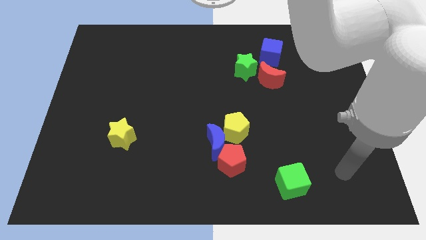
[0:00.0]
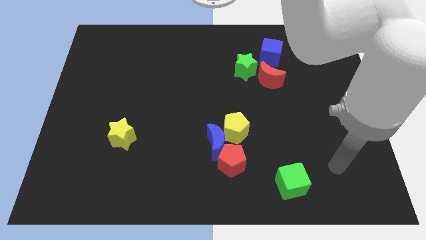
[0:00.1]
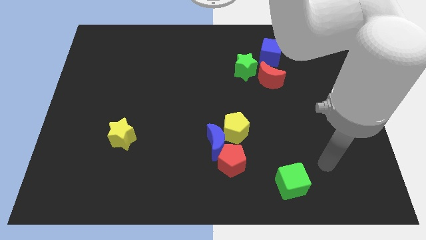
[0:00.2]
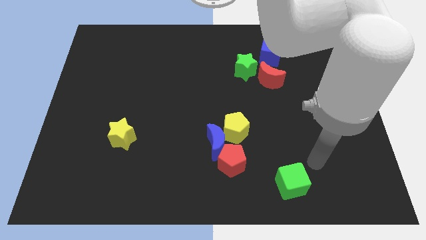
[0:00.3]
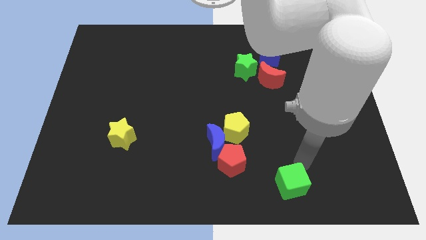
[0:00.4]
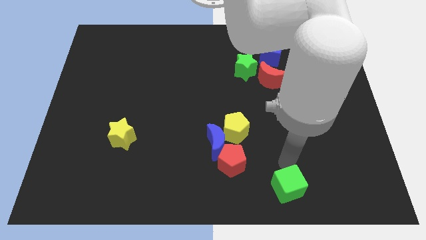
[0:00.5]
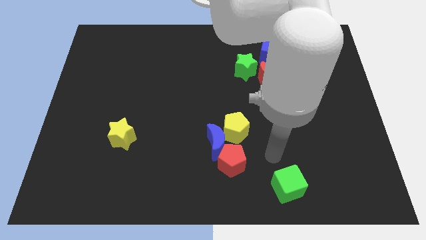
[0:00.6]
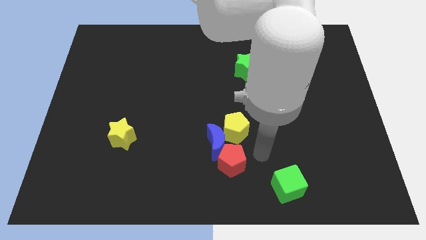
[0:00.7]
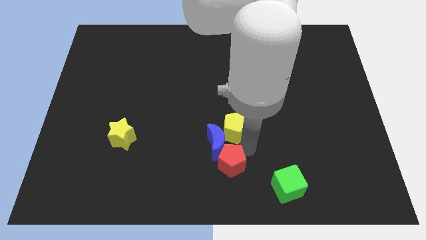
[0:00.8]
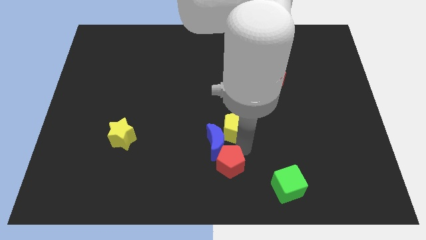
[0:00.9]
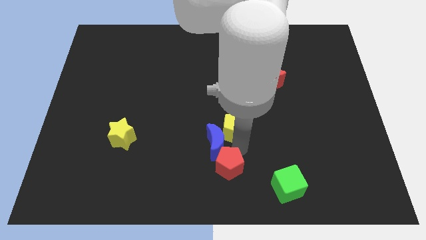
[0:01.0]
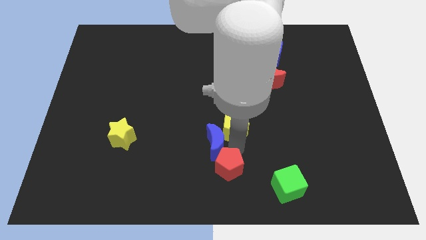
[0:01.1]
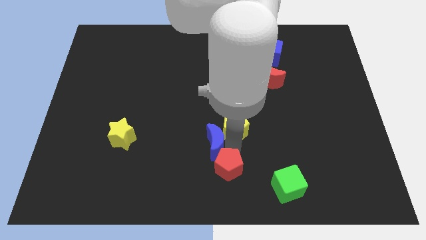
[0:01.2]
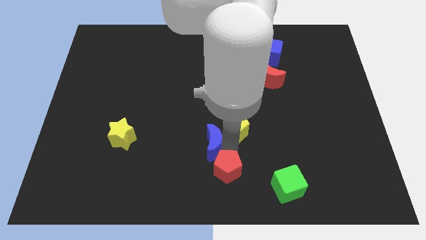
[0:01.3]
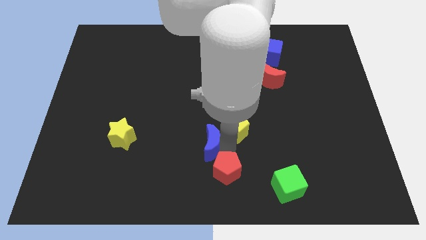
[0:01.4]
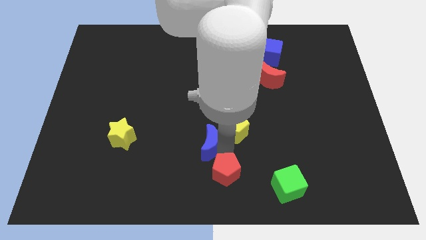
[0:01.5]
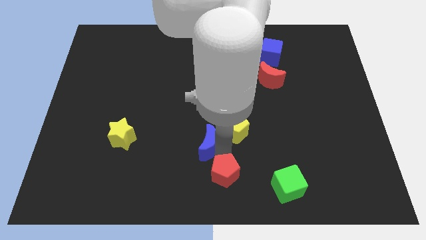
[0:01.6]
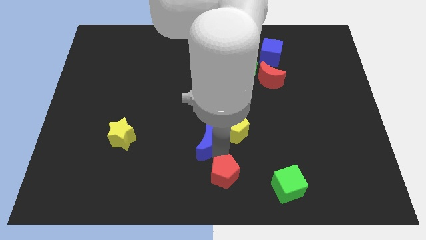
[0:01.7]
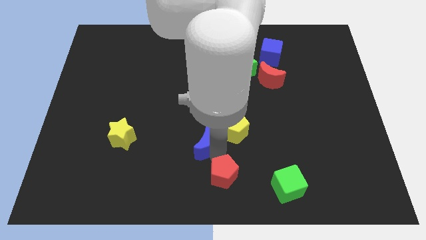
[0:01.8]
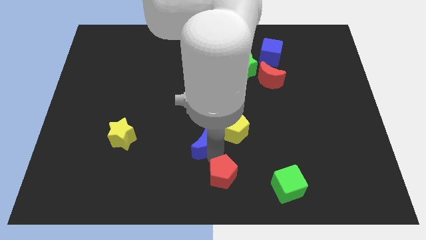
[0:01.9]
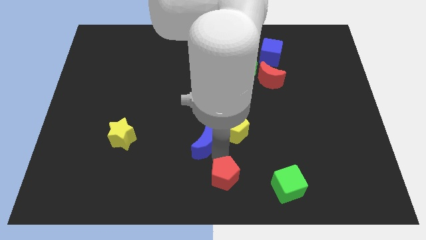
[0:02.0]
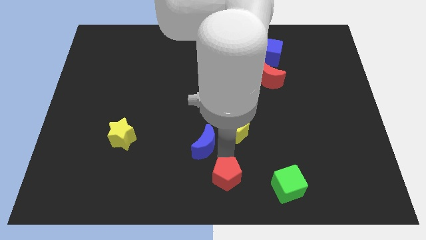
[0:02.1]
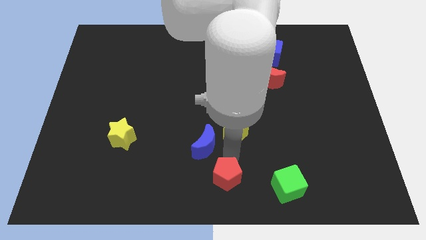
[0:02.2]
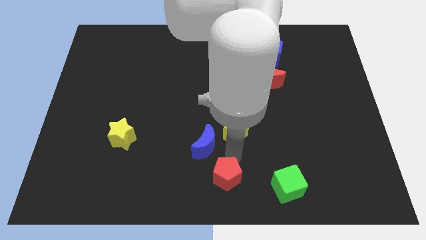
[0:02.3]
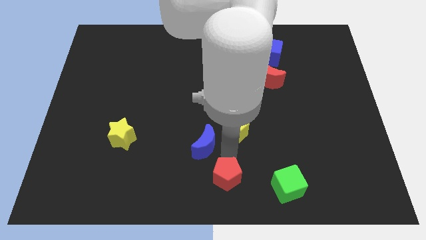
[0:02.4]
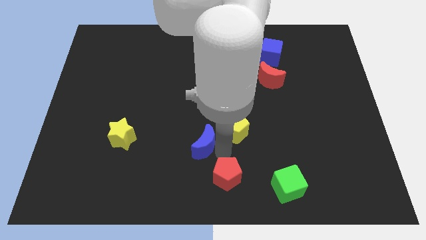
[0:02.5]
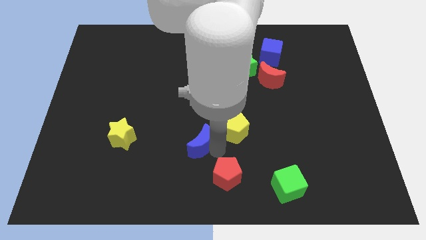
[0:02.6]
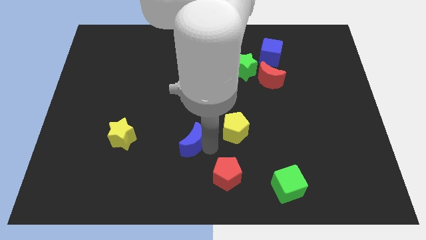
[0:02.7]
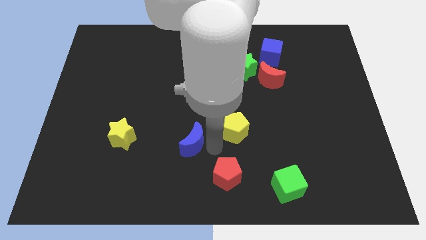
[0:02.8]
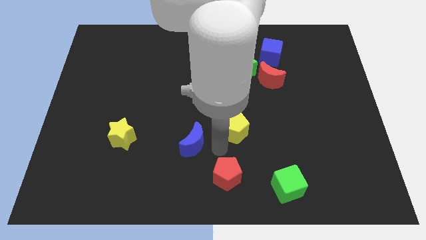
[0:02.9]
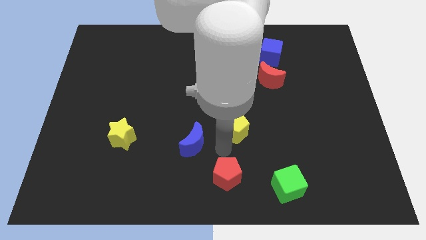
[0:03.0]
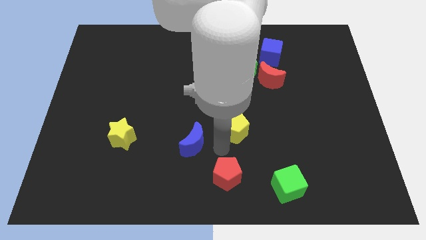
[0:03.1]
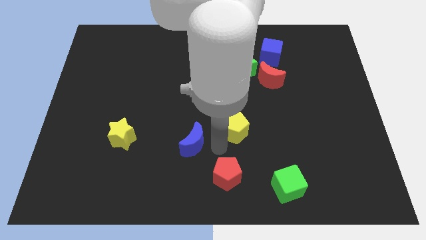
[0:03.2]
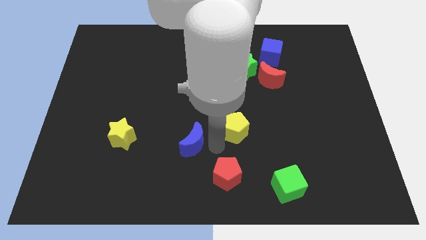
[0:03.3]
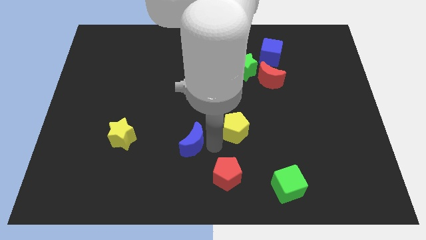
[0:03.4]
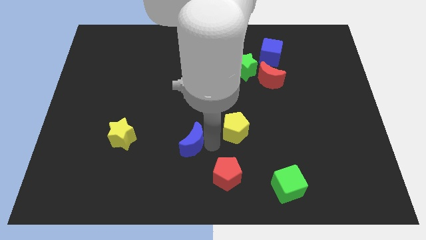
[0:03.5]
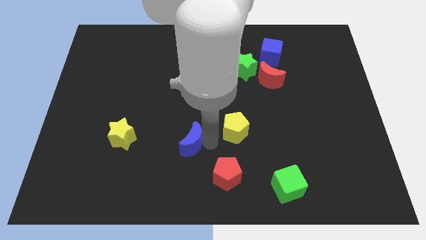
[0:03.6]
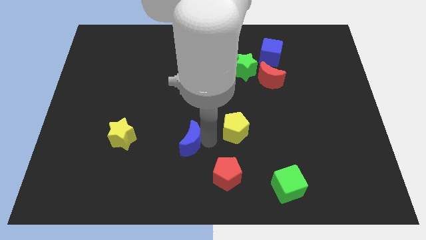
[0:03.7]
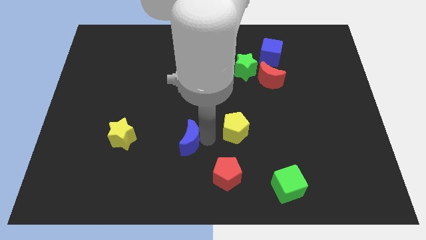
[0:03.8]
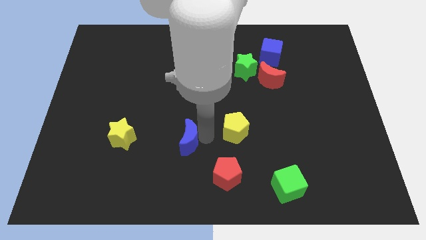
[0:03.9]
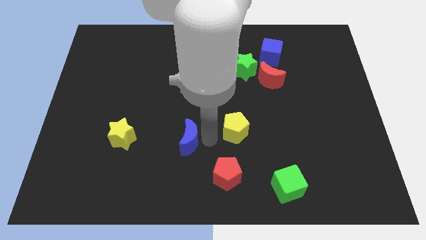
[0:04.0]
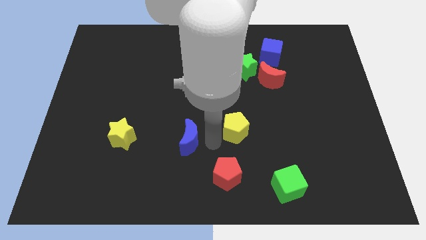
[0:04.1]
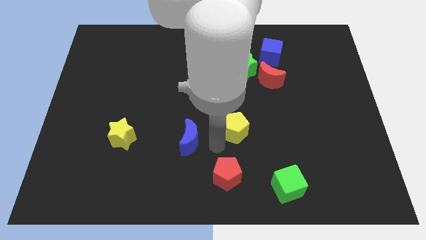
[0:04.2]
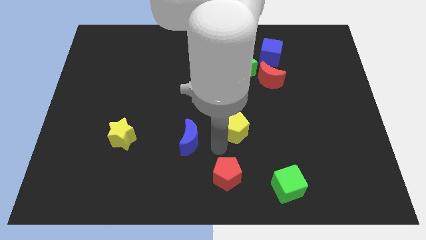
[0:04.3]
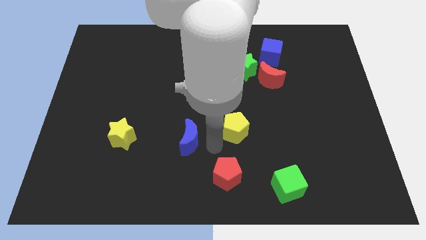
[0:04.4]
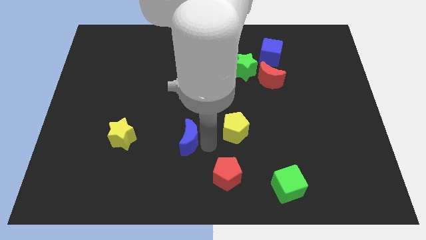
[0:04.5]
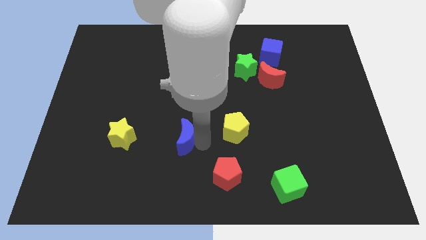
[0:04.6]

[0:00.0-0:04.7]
move the blue moon away from the red pentagon and yellow pentagon

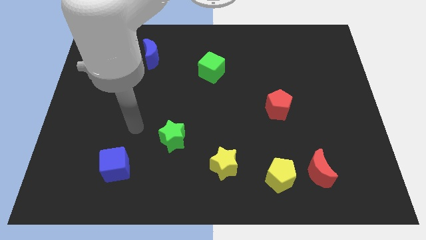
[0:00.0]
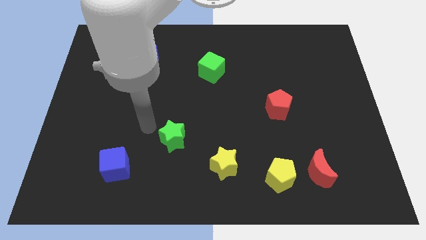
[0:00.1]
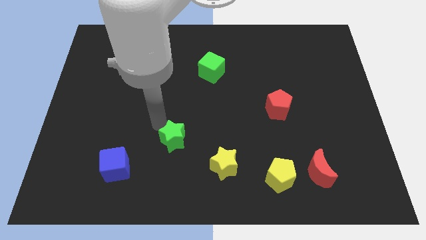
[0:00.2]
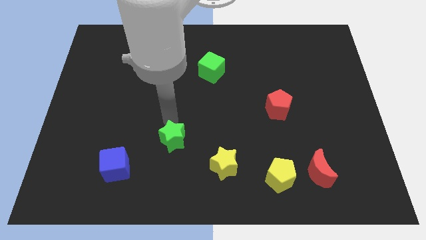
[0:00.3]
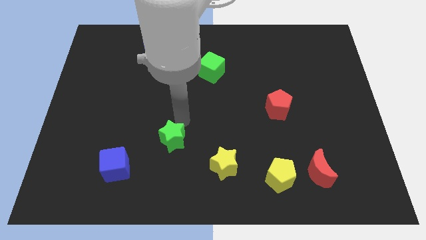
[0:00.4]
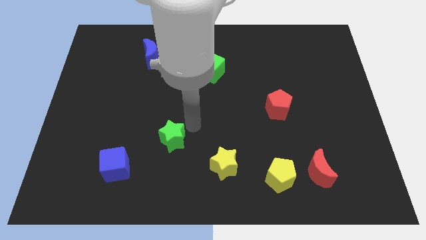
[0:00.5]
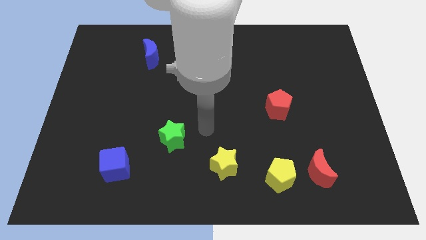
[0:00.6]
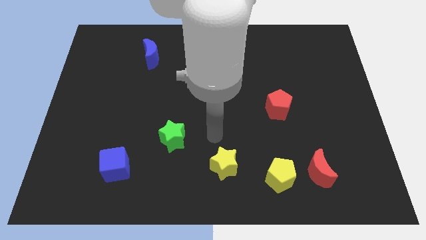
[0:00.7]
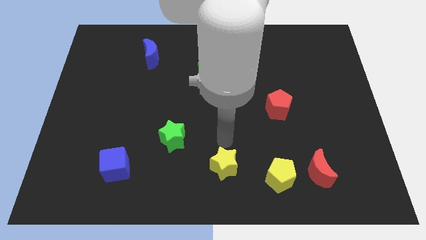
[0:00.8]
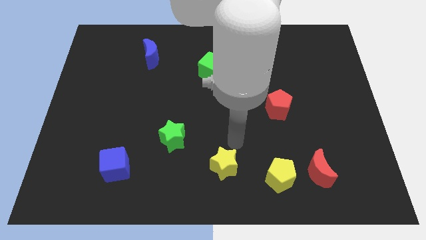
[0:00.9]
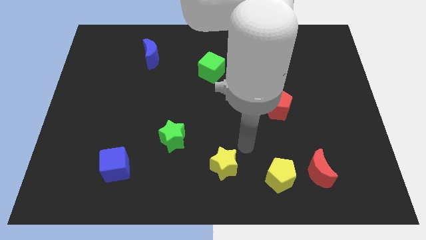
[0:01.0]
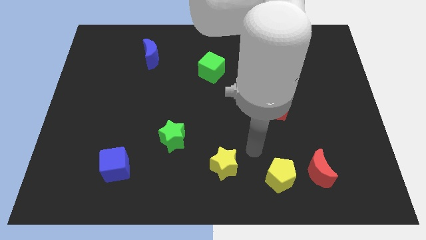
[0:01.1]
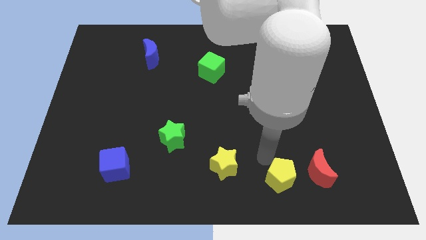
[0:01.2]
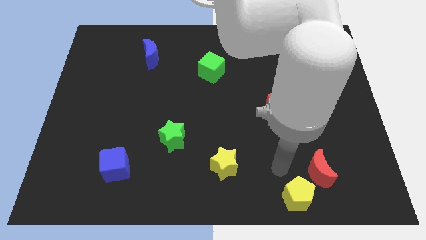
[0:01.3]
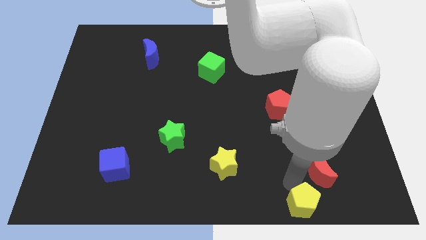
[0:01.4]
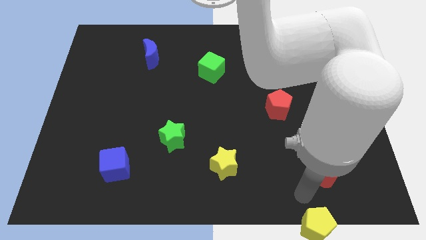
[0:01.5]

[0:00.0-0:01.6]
separate the red moon from the yellow pentagon

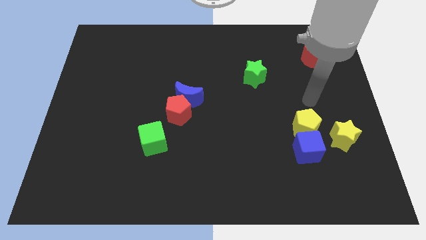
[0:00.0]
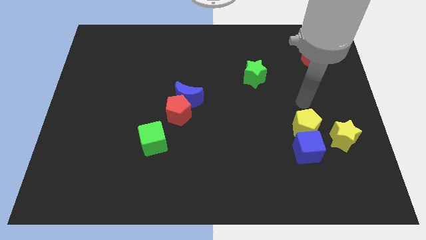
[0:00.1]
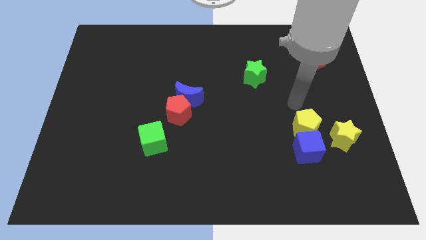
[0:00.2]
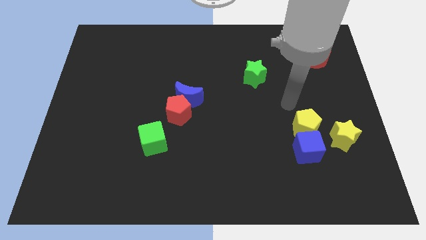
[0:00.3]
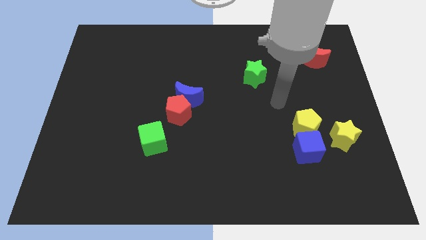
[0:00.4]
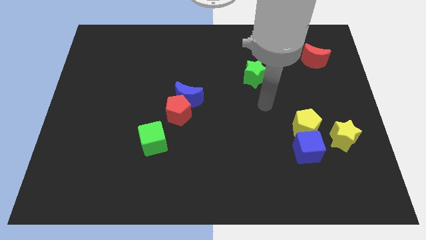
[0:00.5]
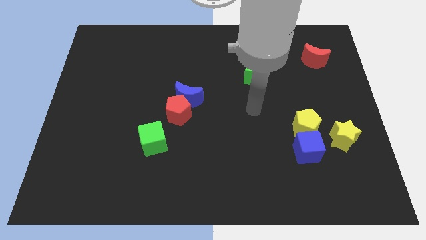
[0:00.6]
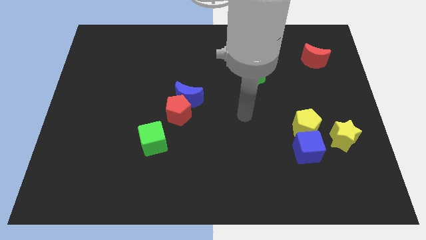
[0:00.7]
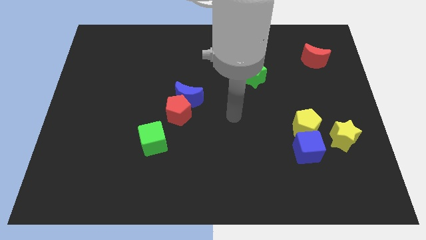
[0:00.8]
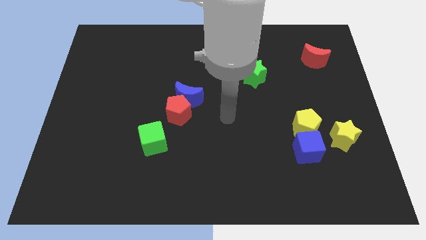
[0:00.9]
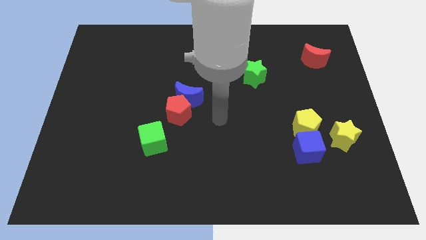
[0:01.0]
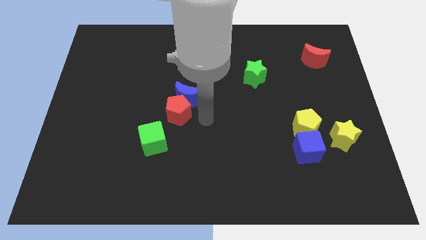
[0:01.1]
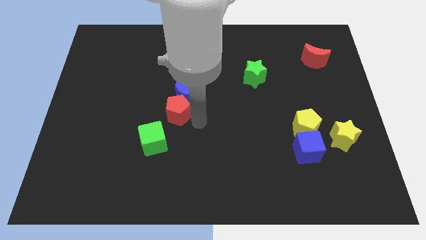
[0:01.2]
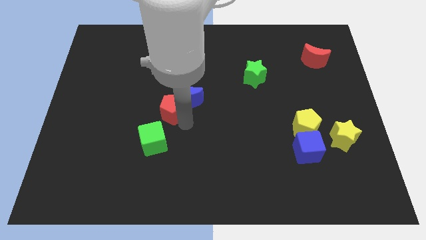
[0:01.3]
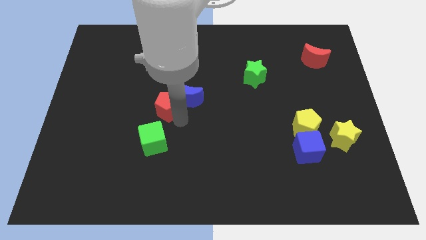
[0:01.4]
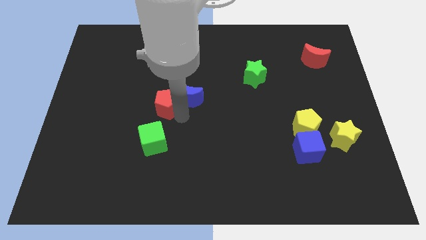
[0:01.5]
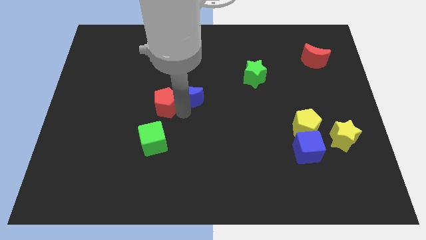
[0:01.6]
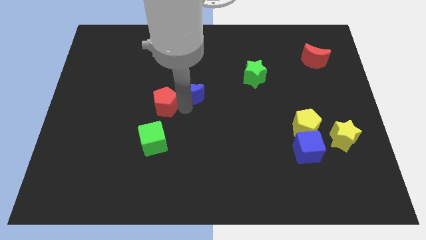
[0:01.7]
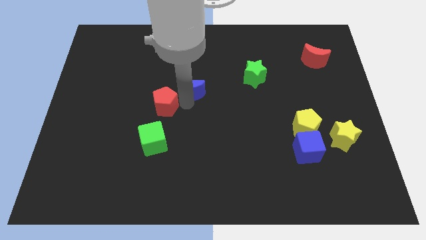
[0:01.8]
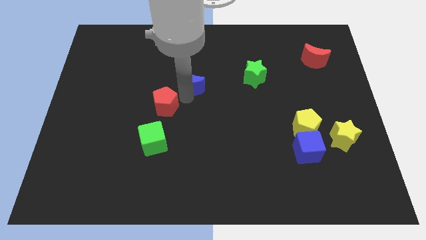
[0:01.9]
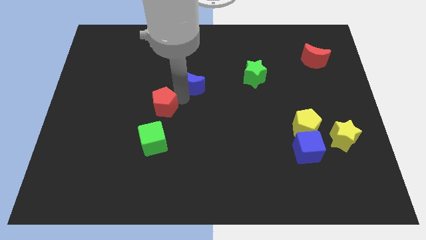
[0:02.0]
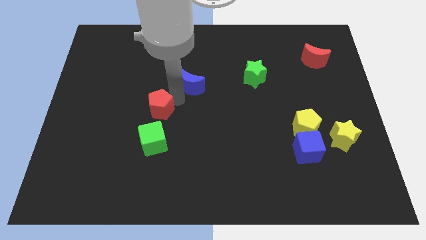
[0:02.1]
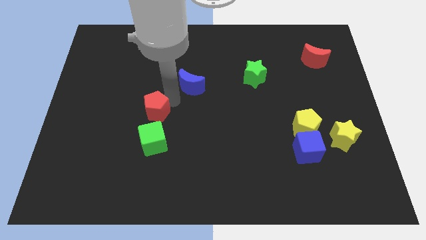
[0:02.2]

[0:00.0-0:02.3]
move the blue moon away from the red pentagon

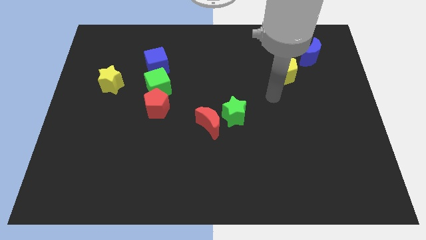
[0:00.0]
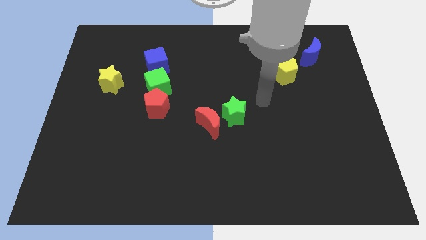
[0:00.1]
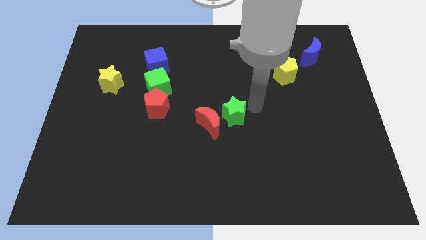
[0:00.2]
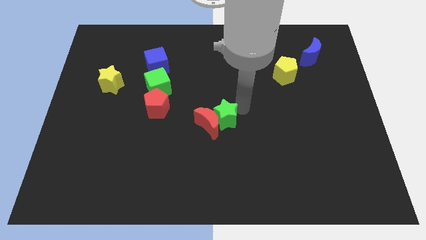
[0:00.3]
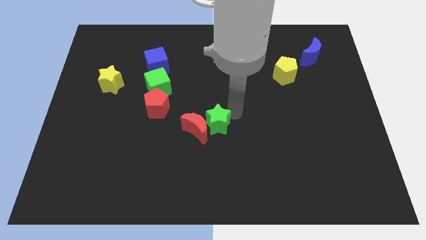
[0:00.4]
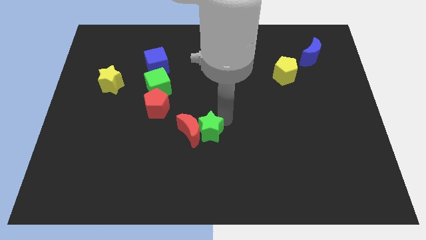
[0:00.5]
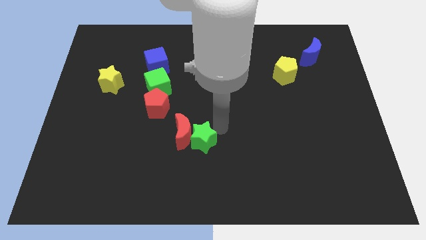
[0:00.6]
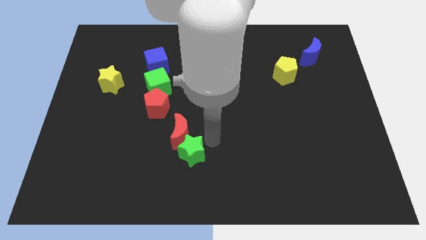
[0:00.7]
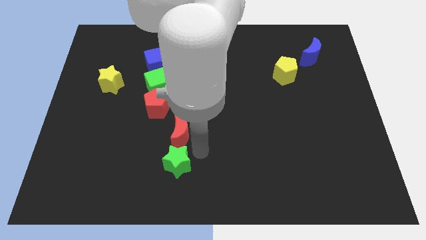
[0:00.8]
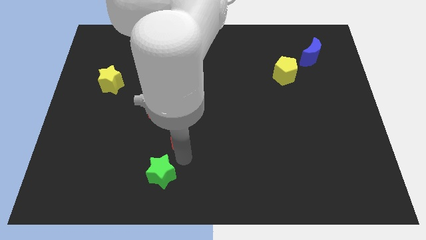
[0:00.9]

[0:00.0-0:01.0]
move the red moon away from the green star
